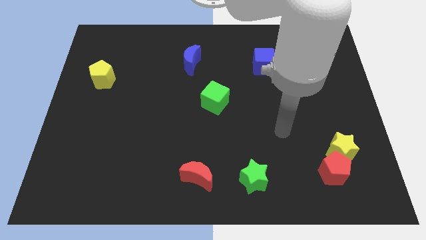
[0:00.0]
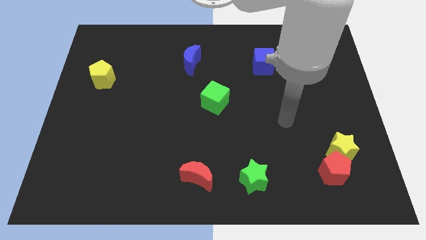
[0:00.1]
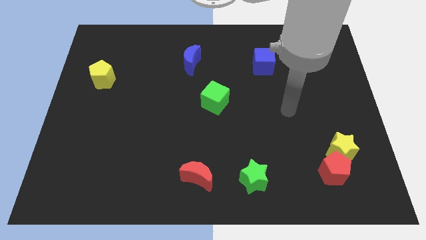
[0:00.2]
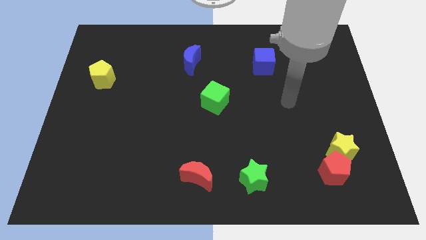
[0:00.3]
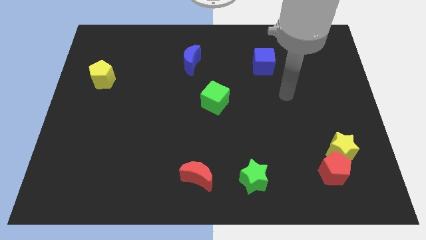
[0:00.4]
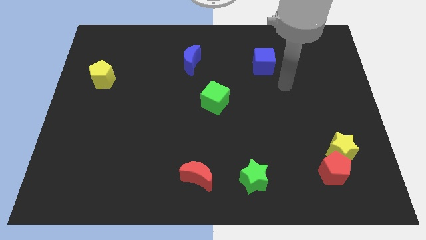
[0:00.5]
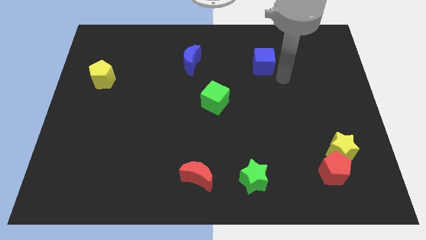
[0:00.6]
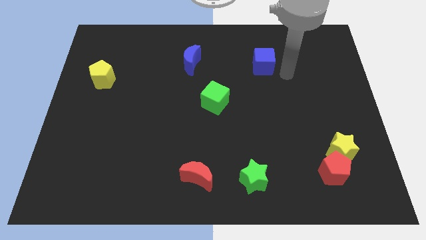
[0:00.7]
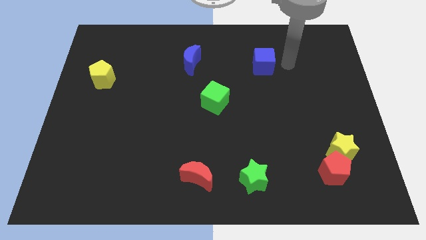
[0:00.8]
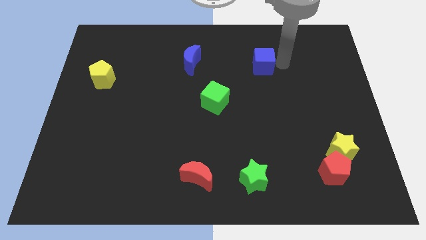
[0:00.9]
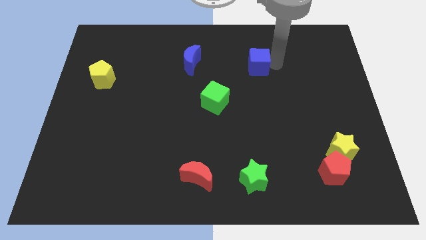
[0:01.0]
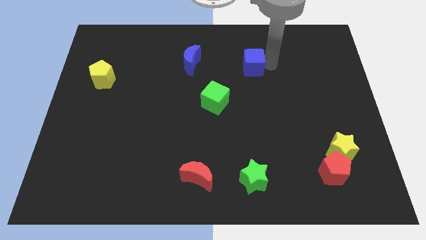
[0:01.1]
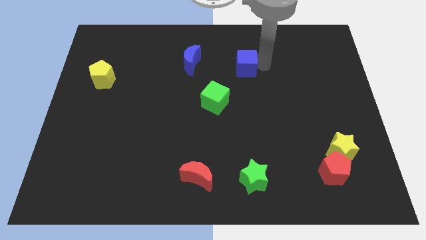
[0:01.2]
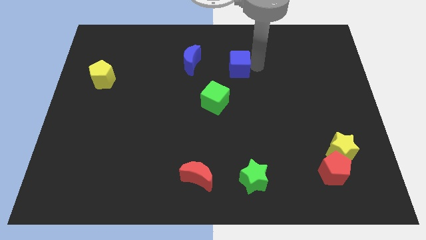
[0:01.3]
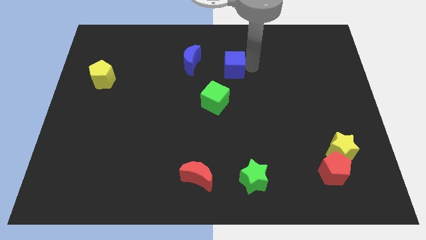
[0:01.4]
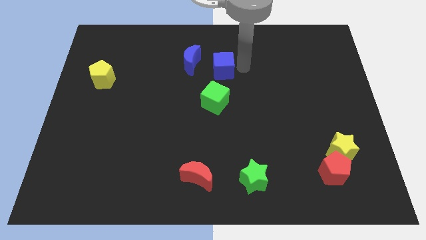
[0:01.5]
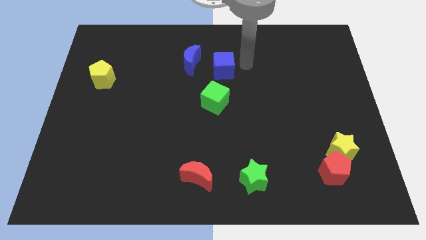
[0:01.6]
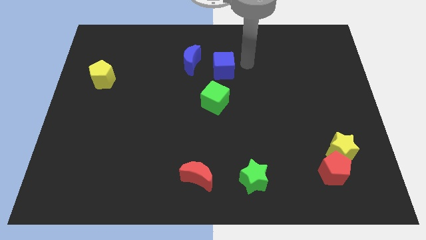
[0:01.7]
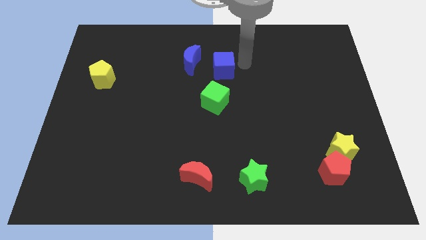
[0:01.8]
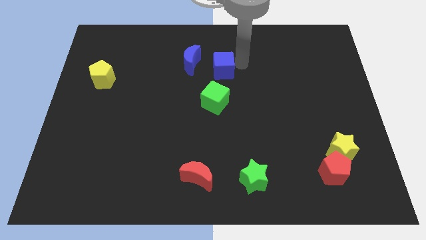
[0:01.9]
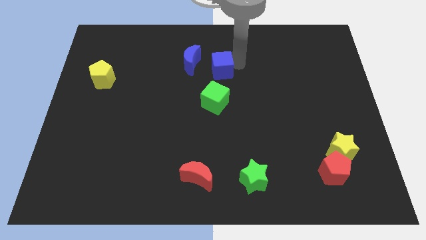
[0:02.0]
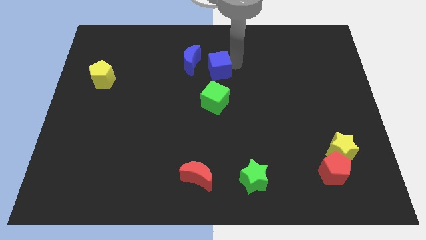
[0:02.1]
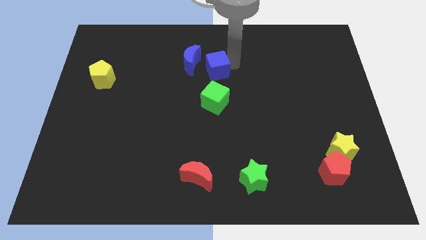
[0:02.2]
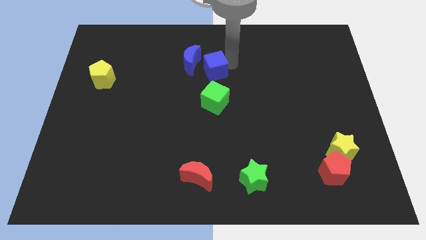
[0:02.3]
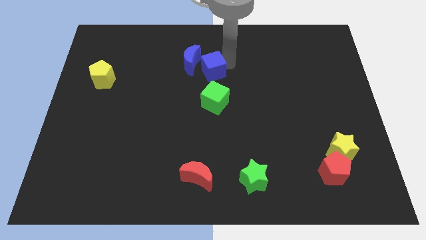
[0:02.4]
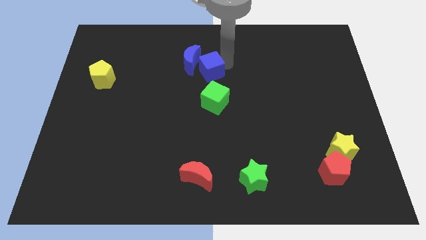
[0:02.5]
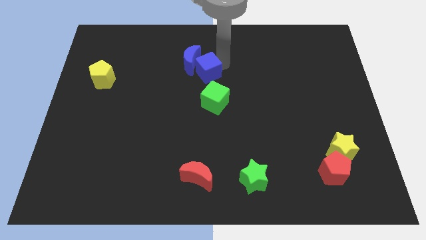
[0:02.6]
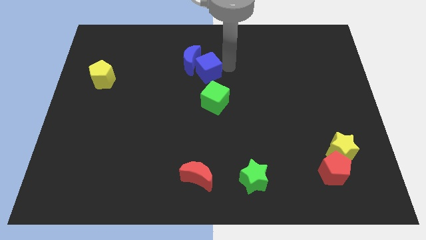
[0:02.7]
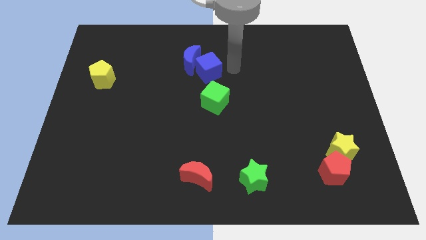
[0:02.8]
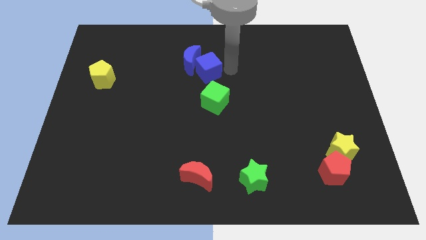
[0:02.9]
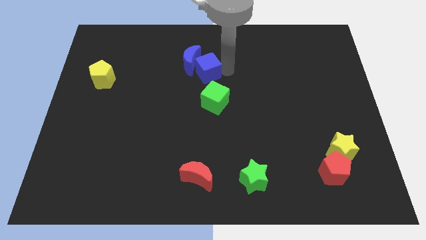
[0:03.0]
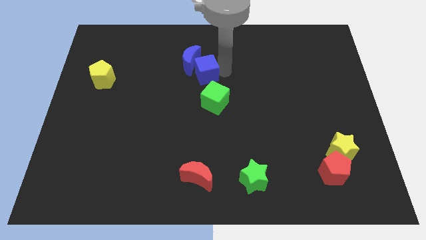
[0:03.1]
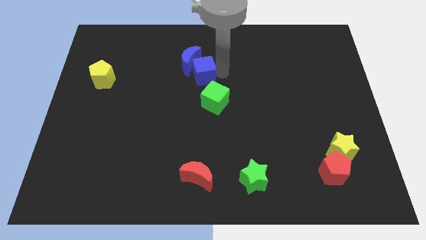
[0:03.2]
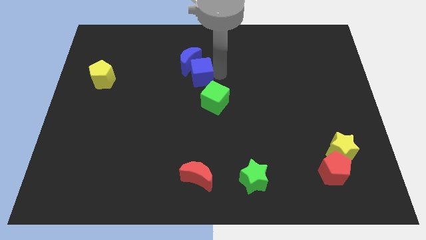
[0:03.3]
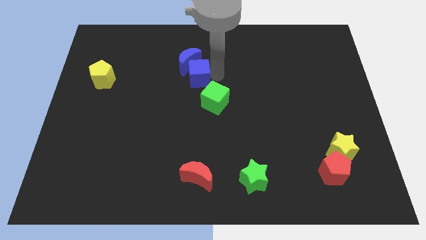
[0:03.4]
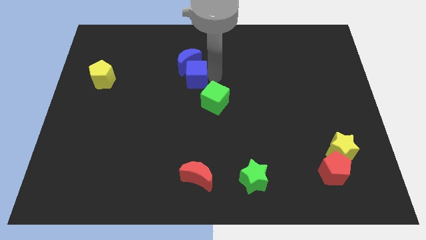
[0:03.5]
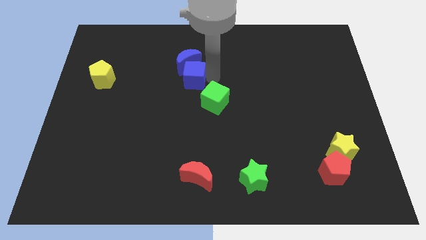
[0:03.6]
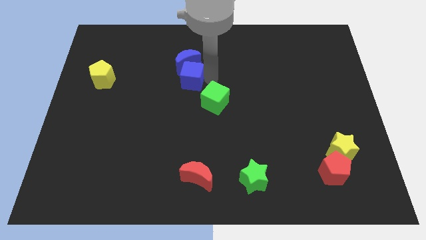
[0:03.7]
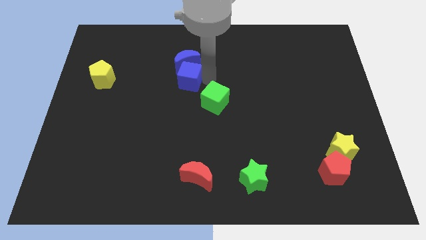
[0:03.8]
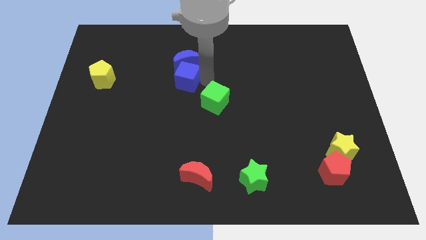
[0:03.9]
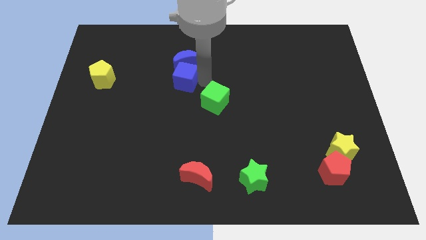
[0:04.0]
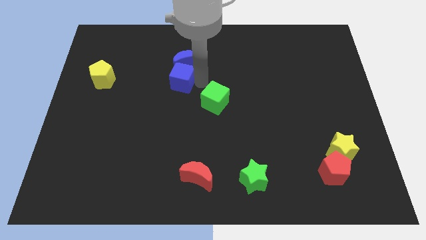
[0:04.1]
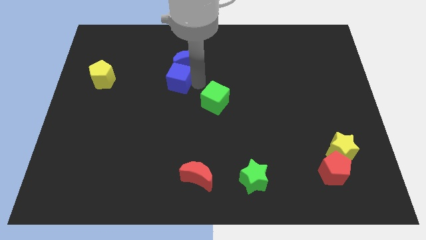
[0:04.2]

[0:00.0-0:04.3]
slide the blue cube to the left

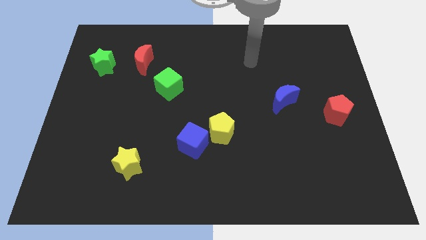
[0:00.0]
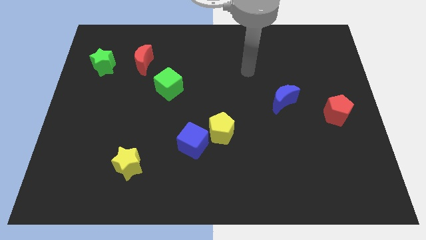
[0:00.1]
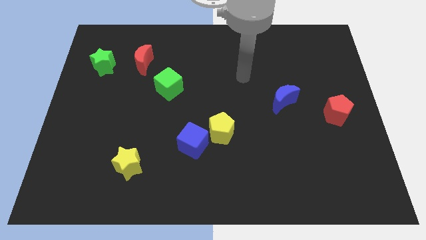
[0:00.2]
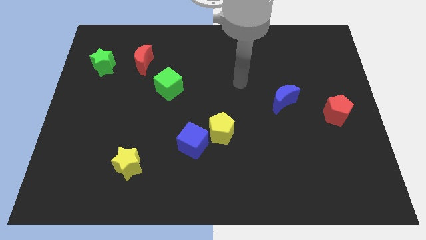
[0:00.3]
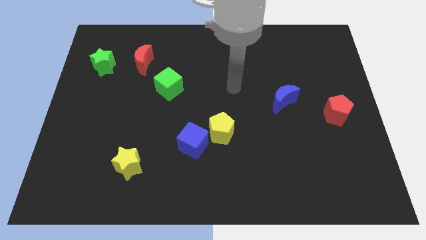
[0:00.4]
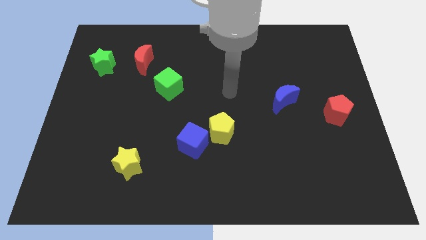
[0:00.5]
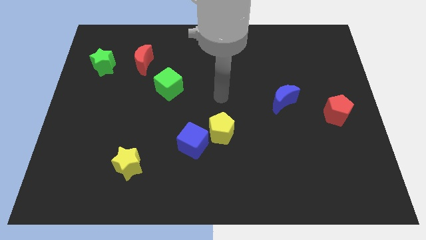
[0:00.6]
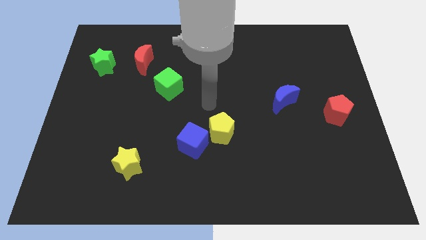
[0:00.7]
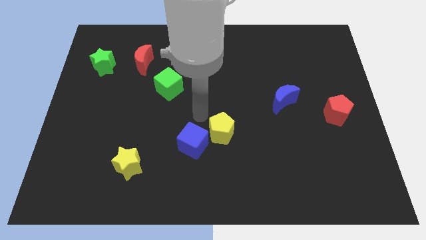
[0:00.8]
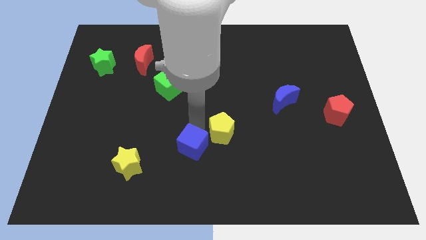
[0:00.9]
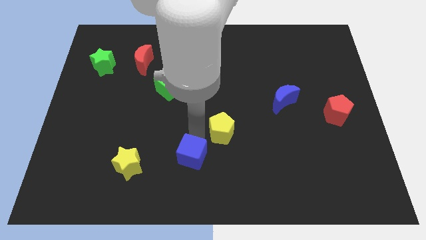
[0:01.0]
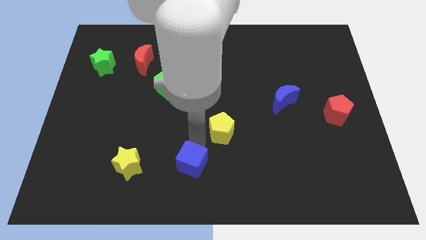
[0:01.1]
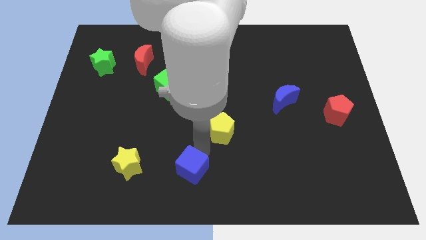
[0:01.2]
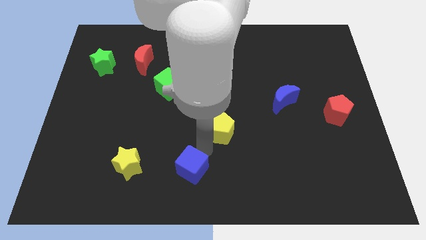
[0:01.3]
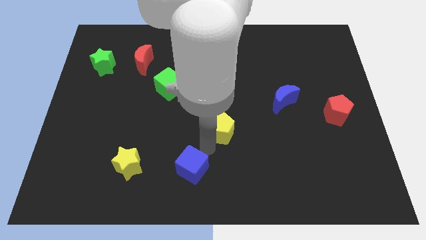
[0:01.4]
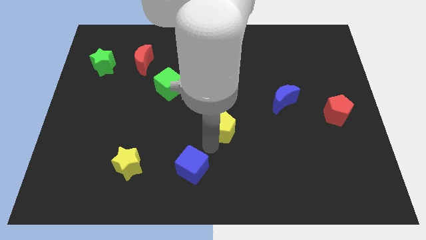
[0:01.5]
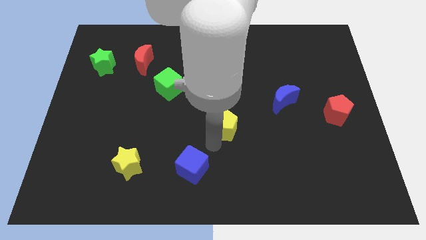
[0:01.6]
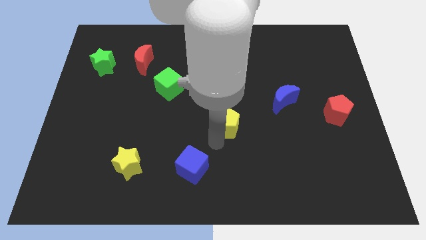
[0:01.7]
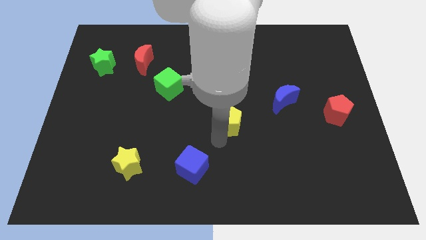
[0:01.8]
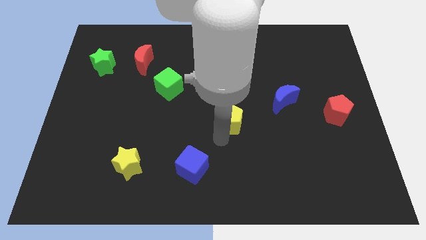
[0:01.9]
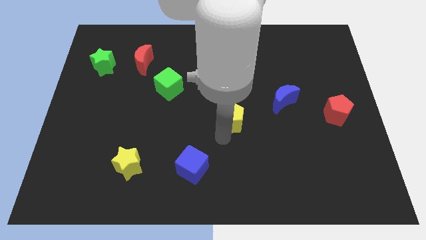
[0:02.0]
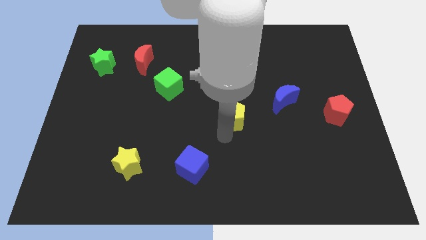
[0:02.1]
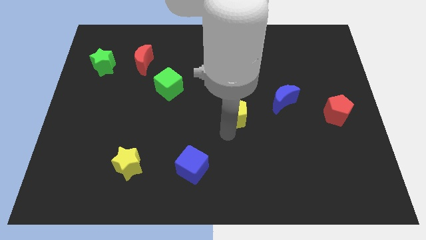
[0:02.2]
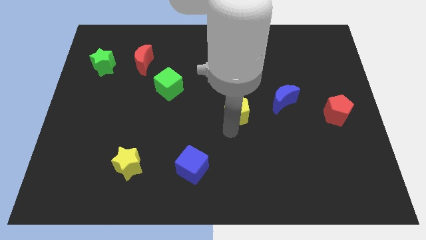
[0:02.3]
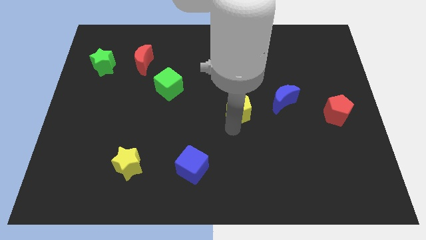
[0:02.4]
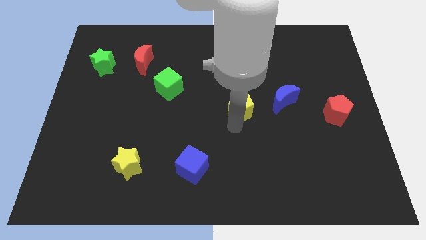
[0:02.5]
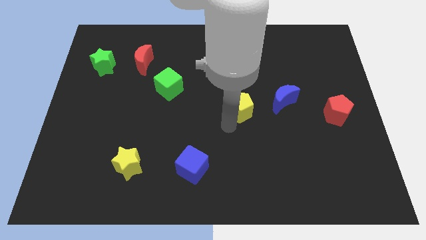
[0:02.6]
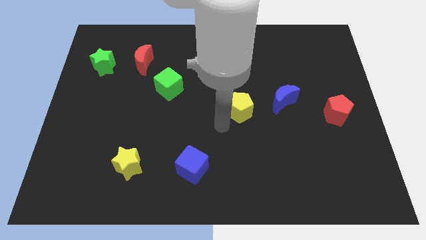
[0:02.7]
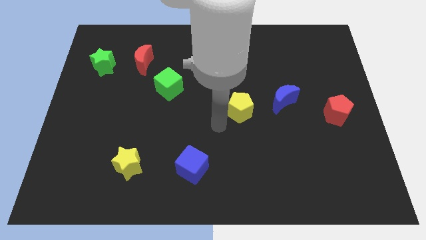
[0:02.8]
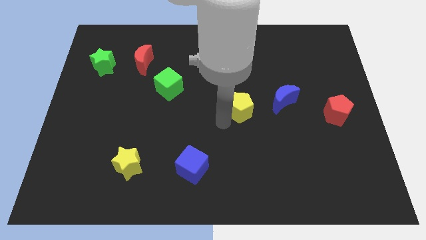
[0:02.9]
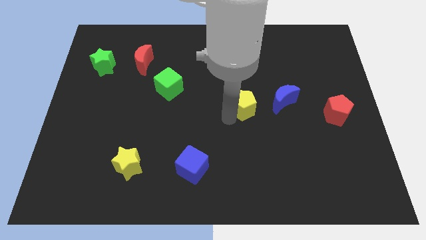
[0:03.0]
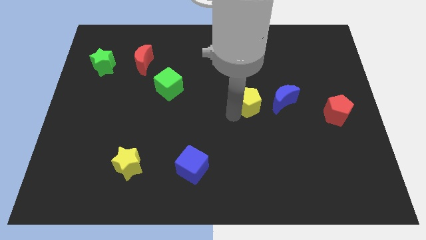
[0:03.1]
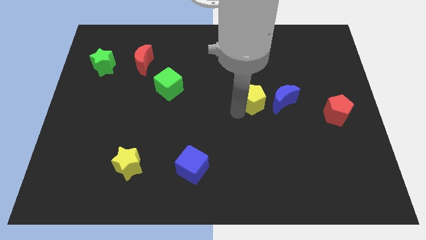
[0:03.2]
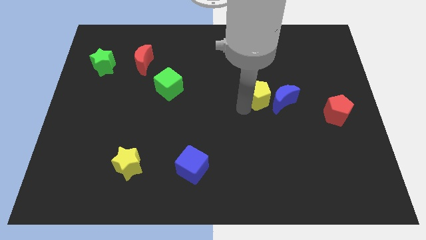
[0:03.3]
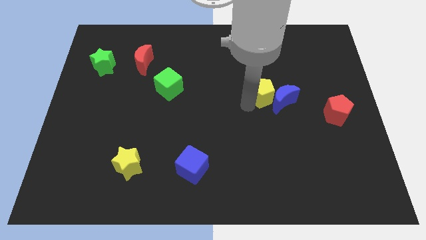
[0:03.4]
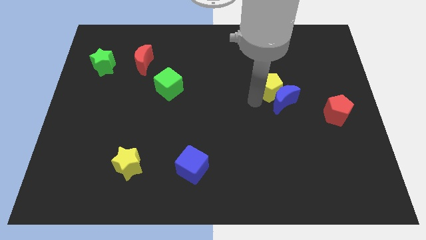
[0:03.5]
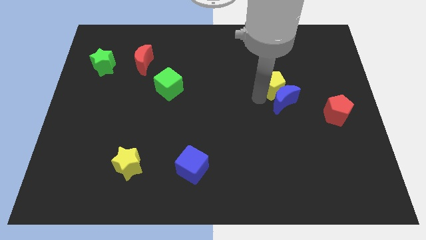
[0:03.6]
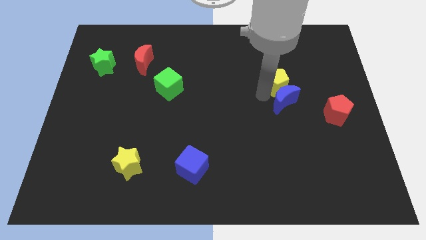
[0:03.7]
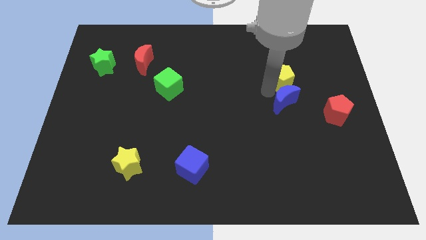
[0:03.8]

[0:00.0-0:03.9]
slide the yellow pentagon diagonally upwards and to the right
